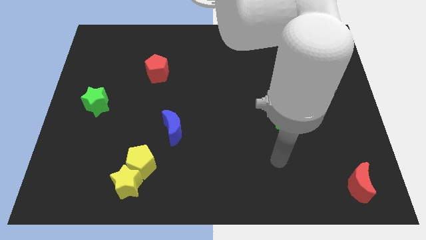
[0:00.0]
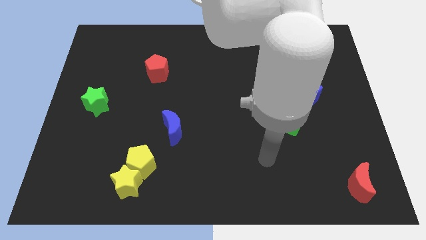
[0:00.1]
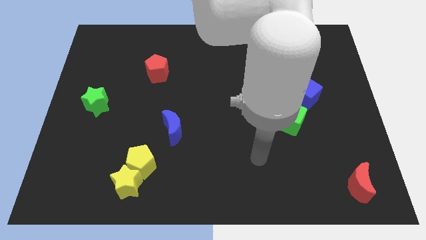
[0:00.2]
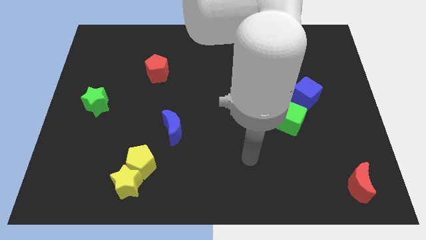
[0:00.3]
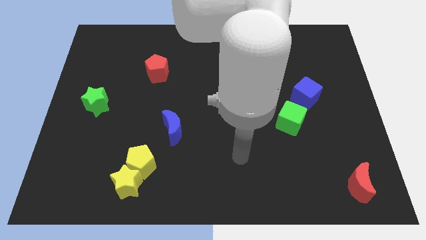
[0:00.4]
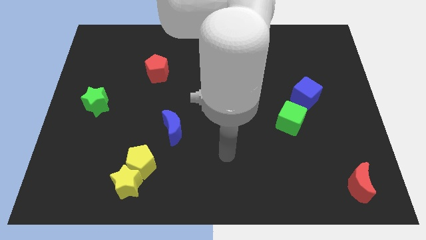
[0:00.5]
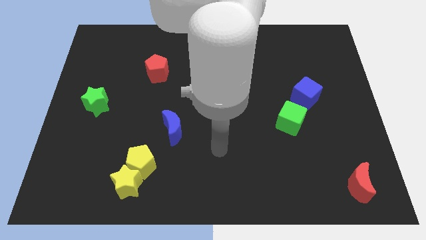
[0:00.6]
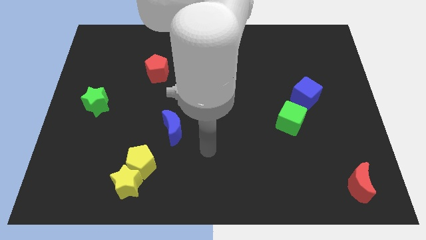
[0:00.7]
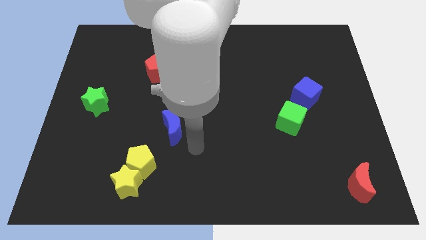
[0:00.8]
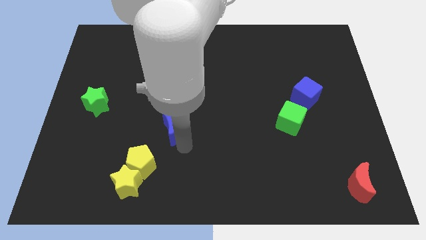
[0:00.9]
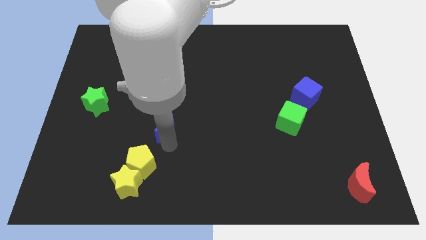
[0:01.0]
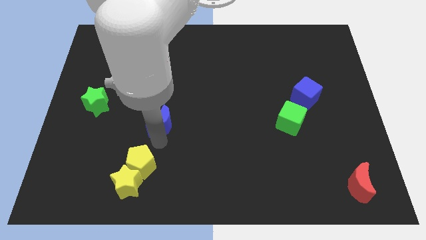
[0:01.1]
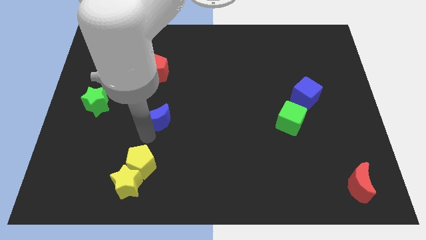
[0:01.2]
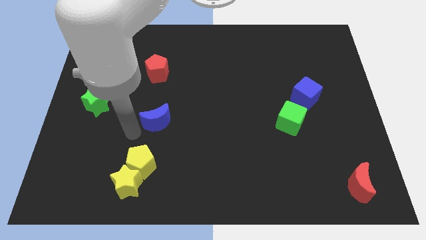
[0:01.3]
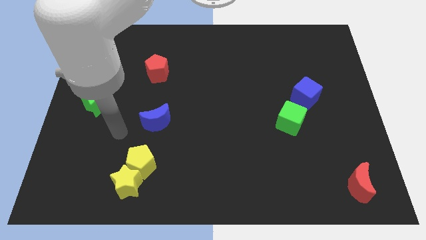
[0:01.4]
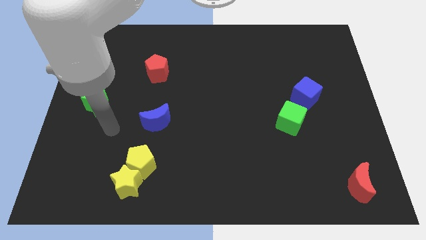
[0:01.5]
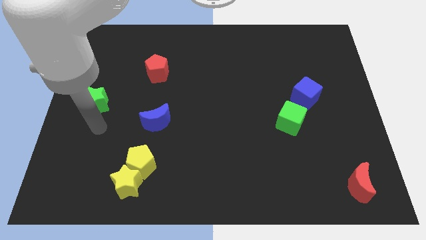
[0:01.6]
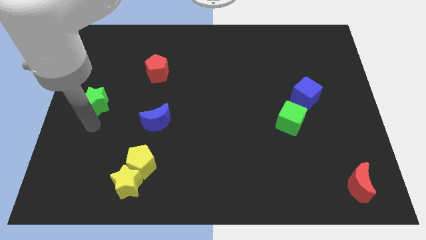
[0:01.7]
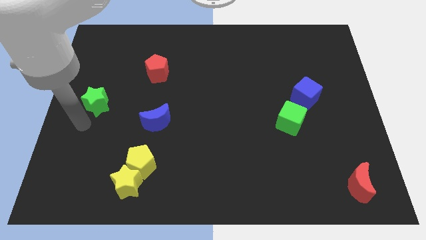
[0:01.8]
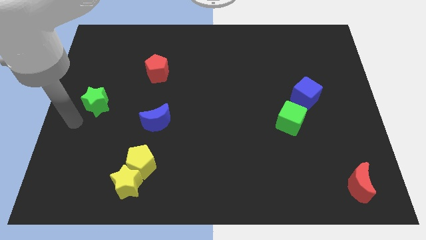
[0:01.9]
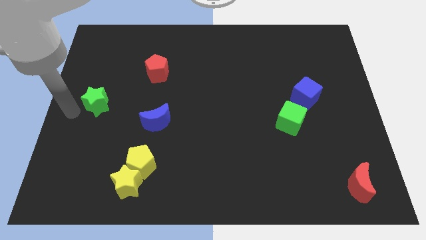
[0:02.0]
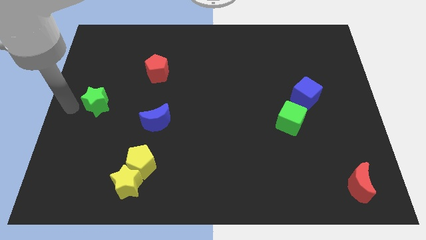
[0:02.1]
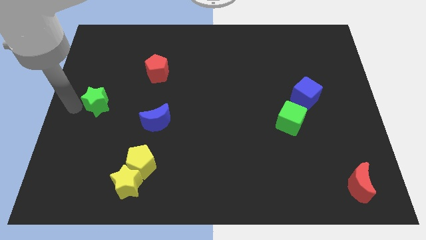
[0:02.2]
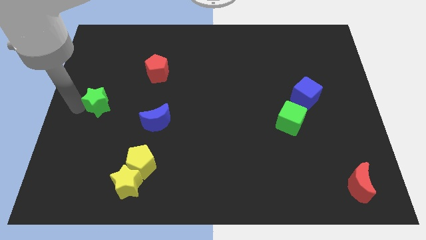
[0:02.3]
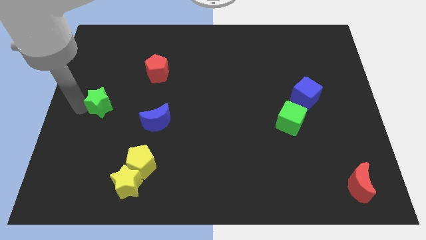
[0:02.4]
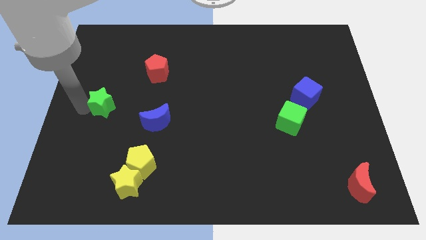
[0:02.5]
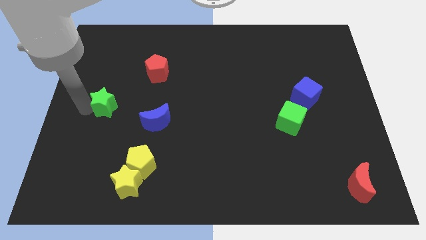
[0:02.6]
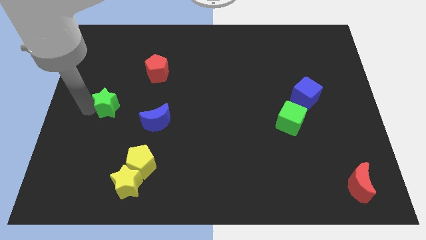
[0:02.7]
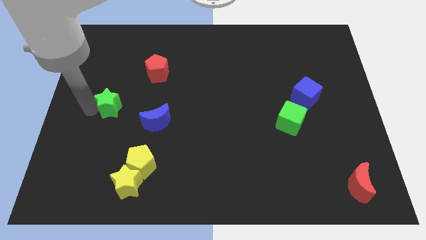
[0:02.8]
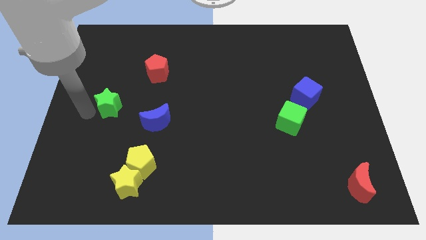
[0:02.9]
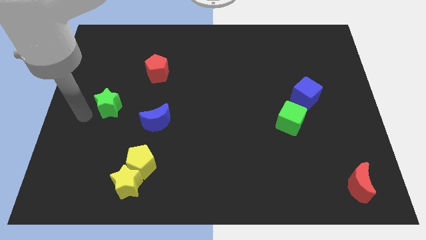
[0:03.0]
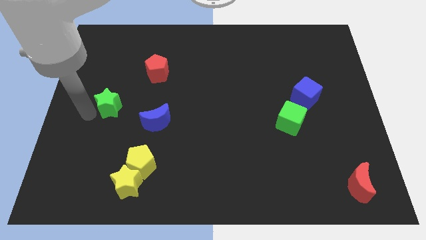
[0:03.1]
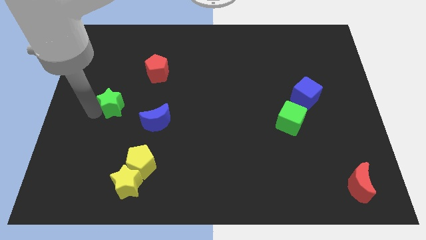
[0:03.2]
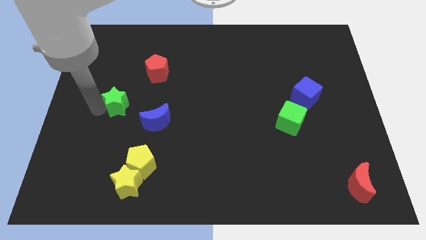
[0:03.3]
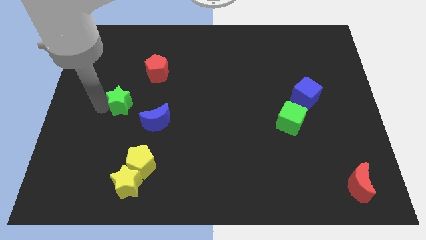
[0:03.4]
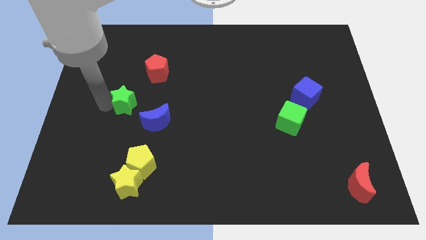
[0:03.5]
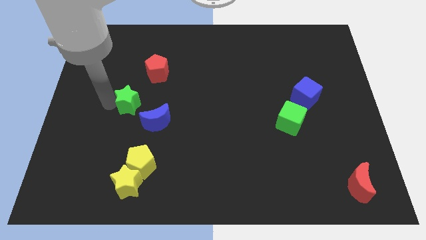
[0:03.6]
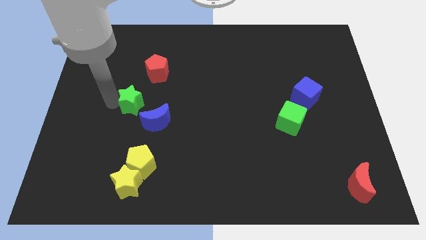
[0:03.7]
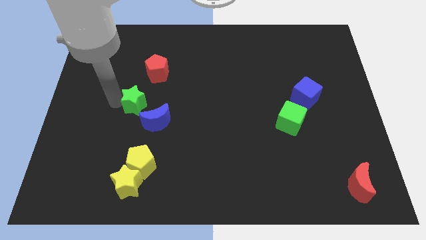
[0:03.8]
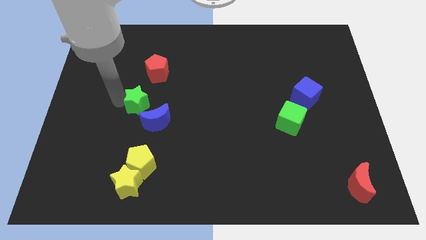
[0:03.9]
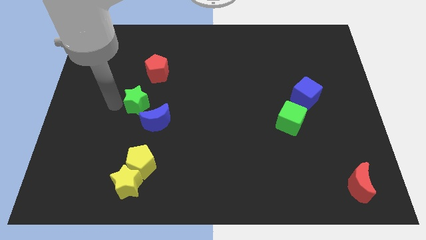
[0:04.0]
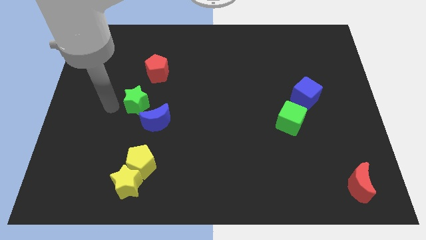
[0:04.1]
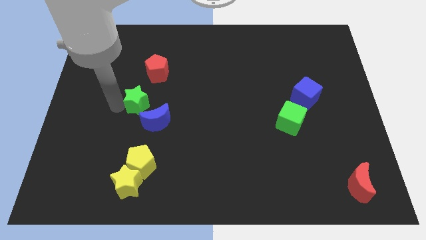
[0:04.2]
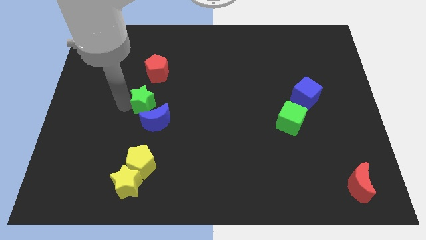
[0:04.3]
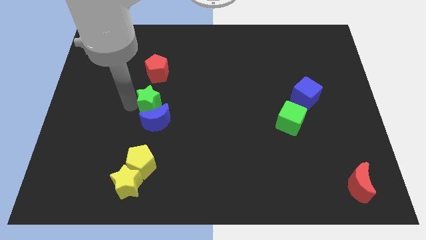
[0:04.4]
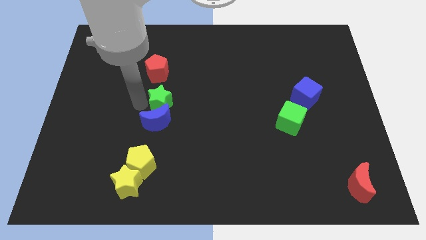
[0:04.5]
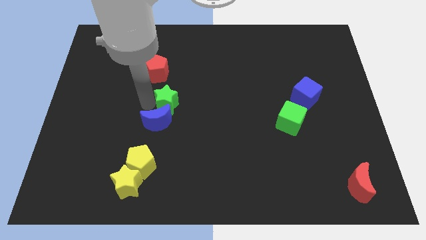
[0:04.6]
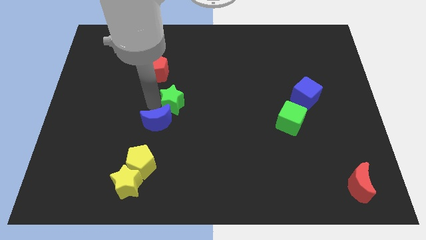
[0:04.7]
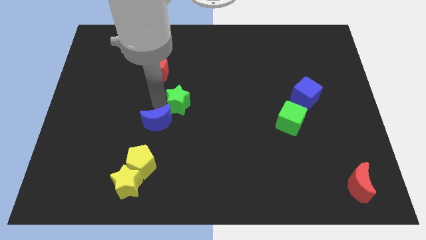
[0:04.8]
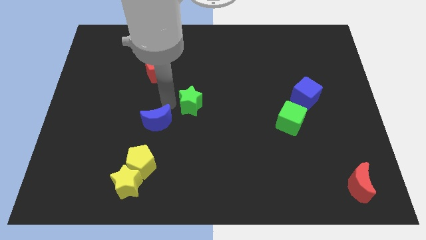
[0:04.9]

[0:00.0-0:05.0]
move the green star right

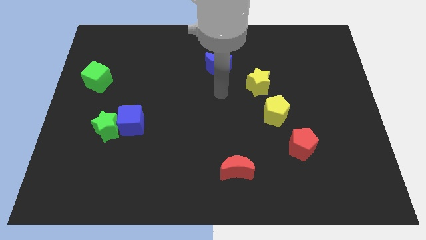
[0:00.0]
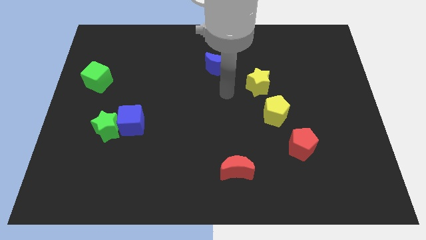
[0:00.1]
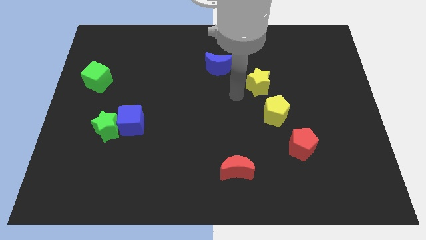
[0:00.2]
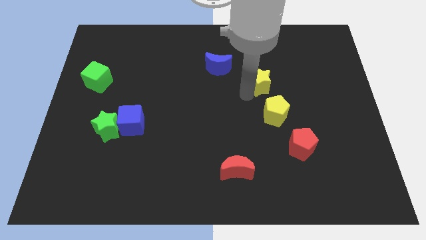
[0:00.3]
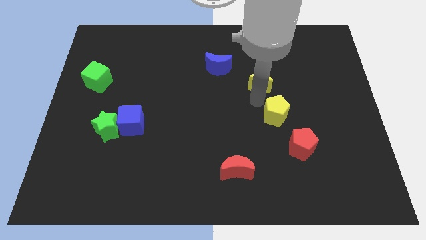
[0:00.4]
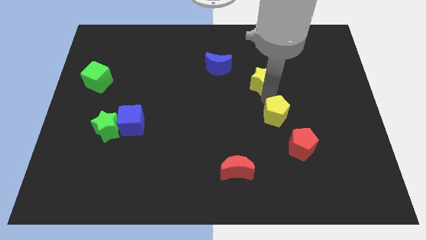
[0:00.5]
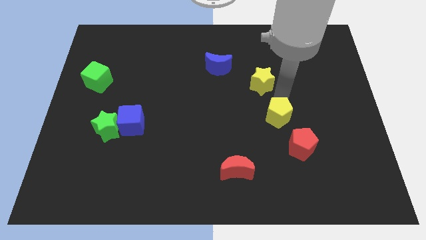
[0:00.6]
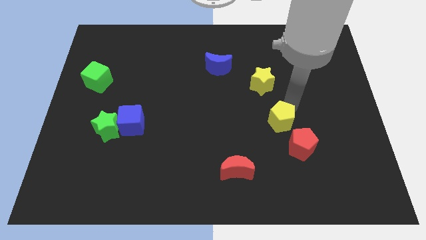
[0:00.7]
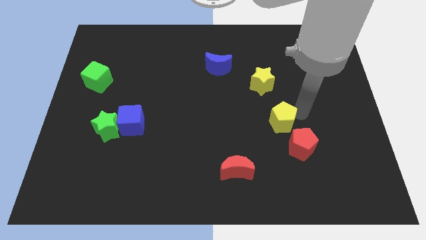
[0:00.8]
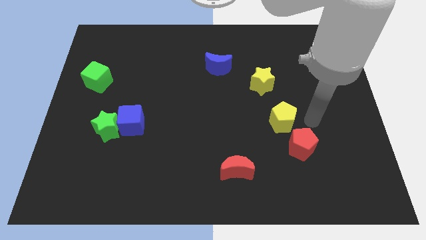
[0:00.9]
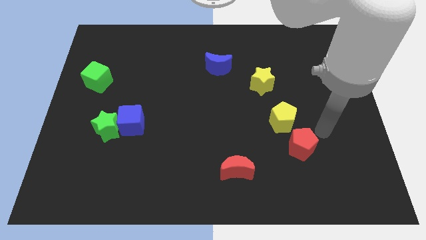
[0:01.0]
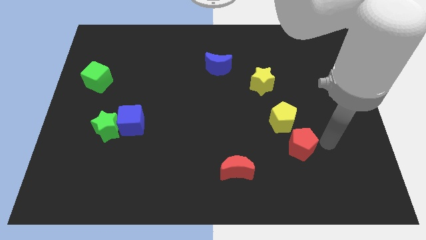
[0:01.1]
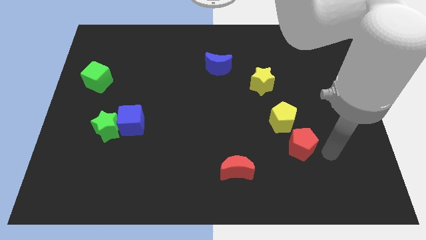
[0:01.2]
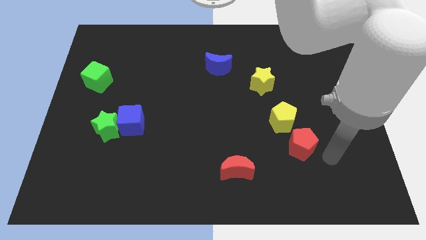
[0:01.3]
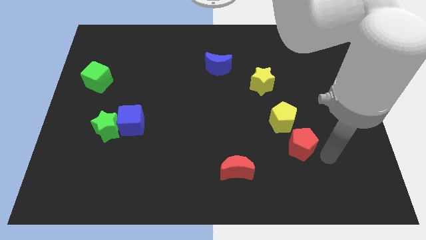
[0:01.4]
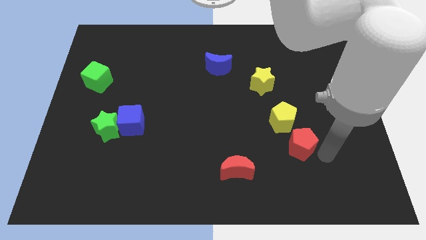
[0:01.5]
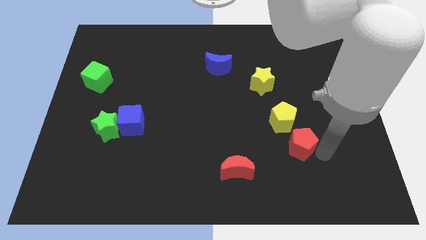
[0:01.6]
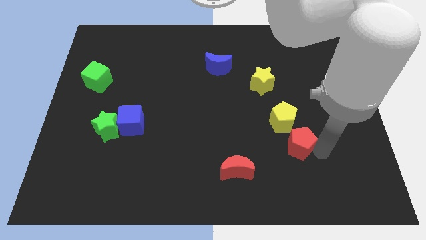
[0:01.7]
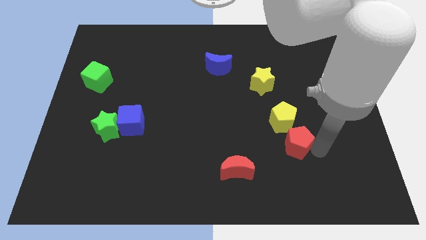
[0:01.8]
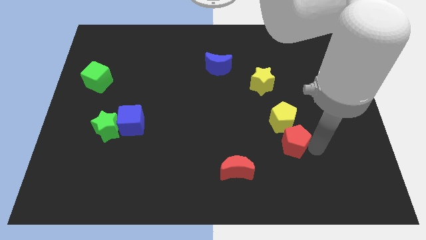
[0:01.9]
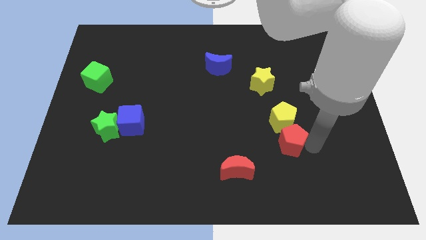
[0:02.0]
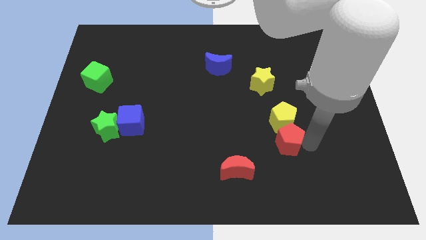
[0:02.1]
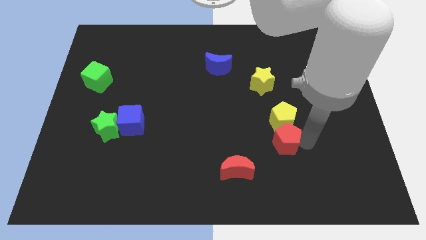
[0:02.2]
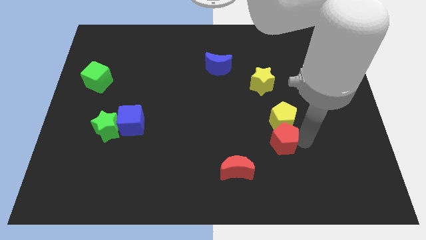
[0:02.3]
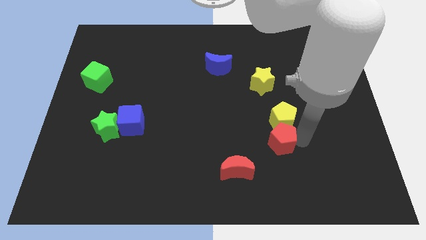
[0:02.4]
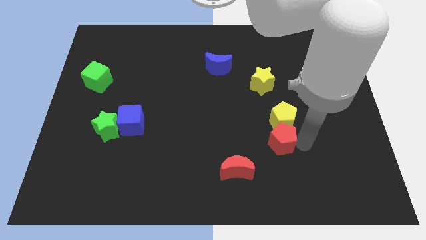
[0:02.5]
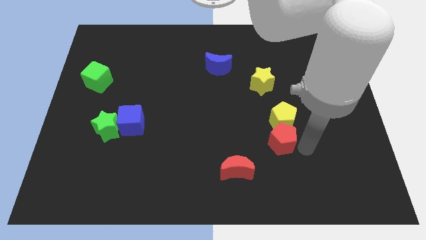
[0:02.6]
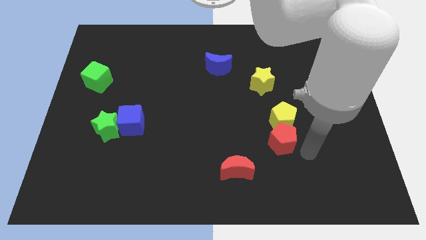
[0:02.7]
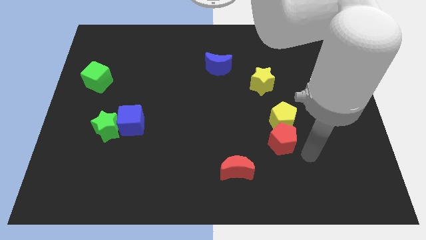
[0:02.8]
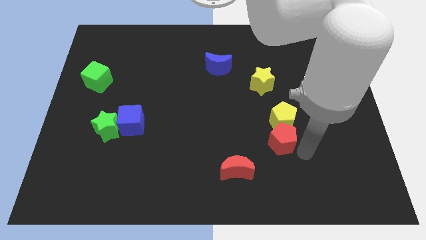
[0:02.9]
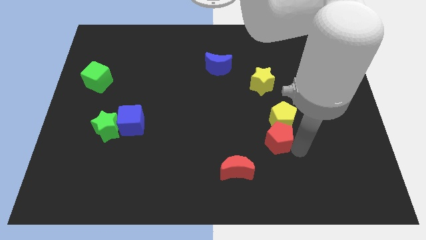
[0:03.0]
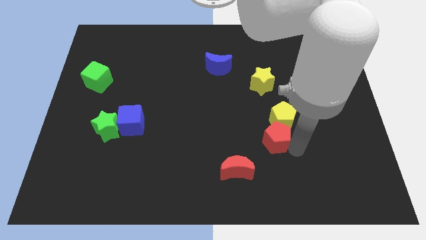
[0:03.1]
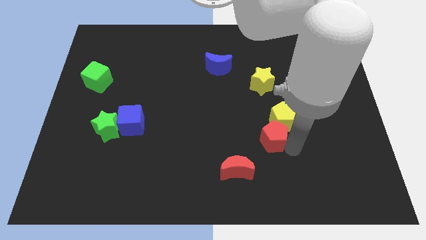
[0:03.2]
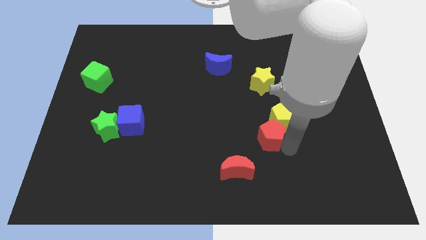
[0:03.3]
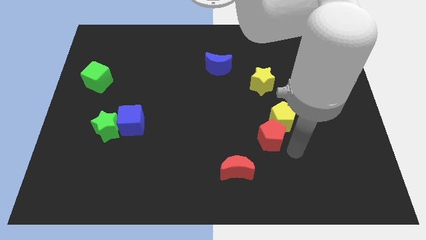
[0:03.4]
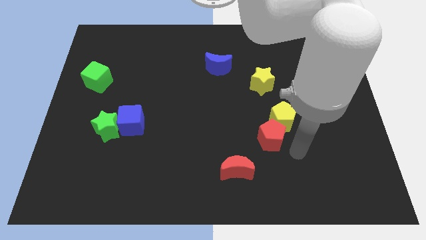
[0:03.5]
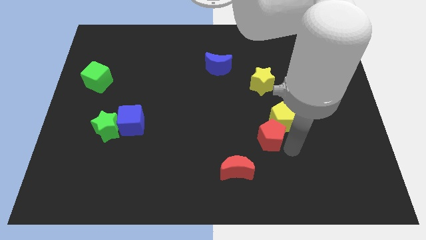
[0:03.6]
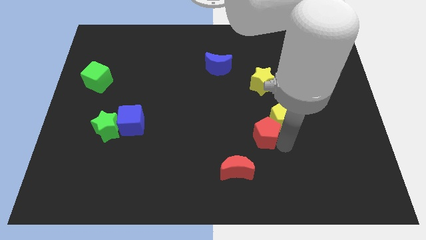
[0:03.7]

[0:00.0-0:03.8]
push the red pentagon upwards and then left slightly
